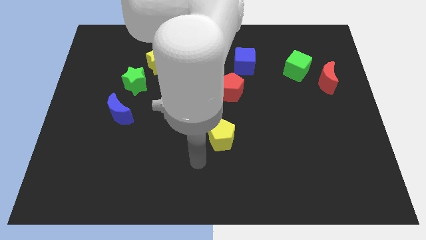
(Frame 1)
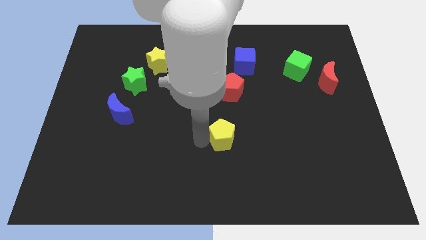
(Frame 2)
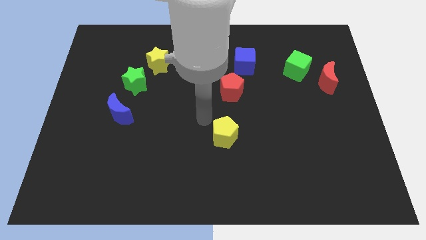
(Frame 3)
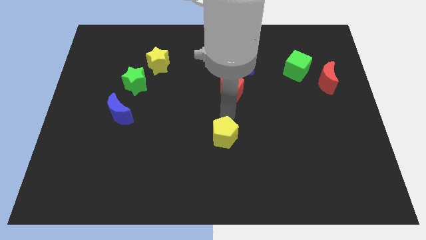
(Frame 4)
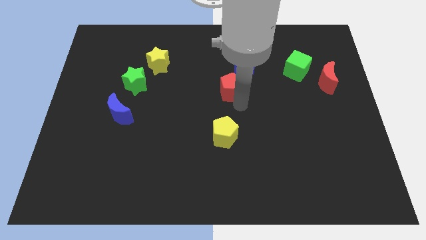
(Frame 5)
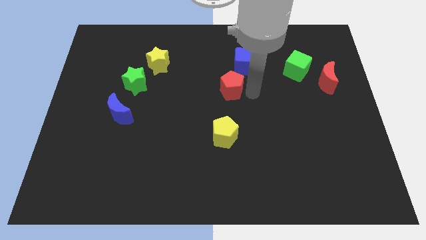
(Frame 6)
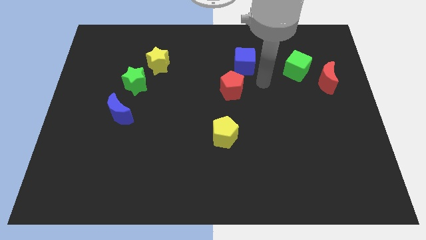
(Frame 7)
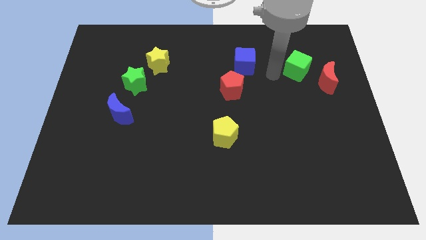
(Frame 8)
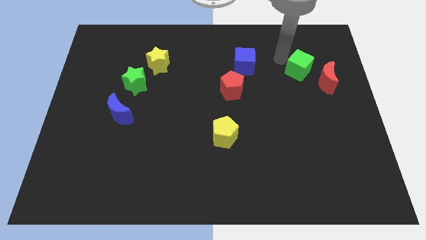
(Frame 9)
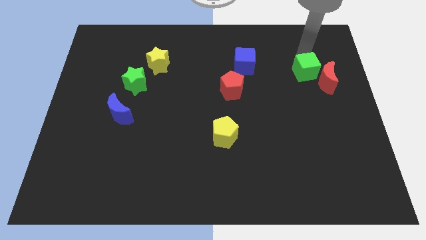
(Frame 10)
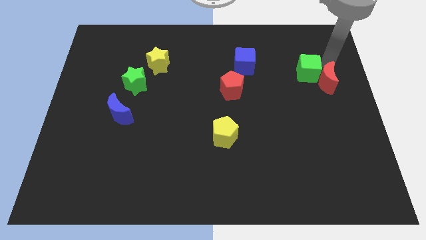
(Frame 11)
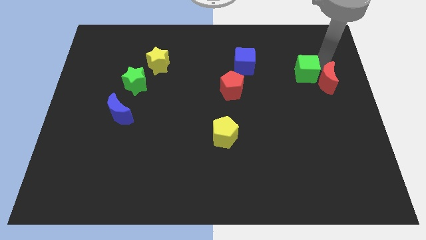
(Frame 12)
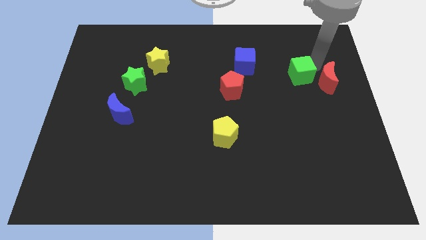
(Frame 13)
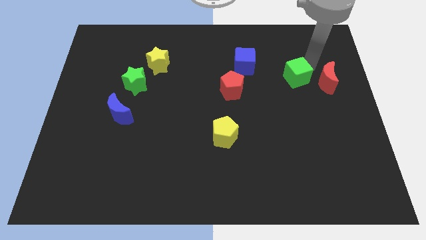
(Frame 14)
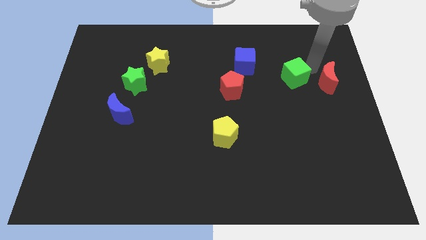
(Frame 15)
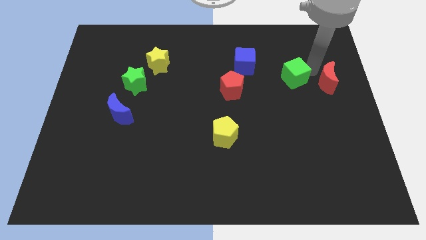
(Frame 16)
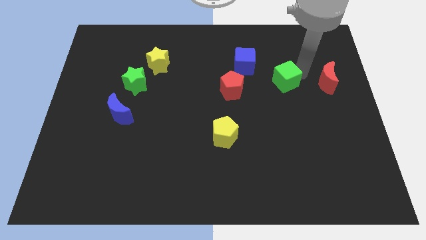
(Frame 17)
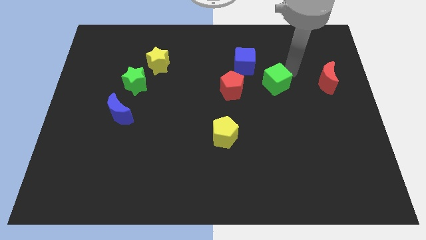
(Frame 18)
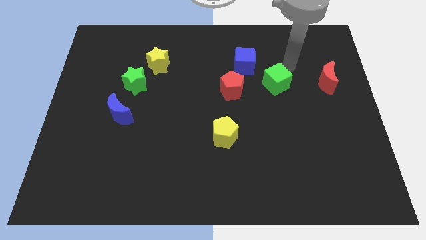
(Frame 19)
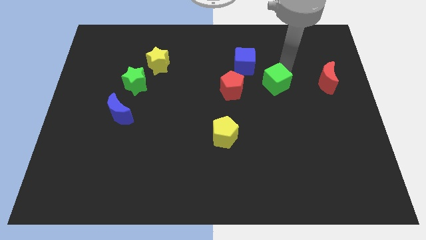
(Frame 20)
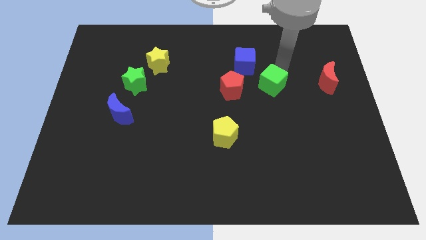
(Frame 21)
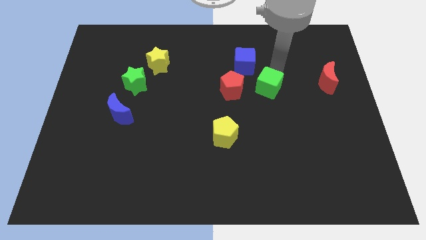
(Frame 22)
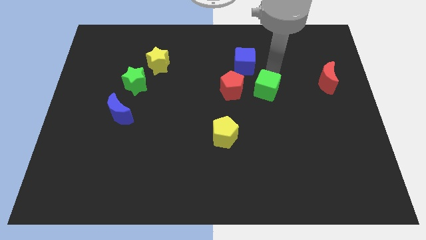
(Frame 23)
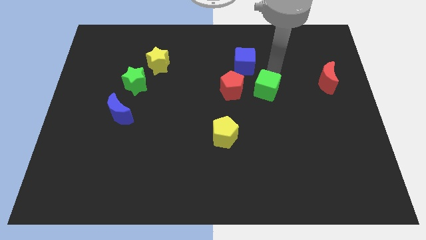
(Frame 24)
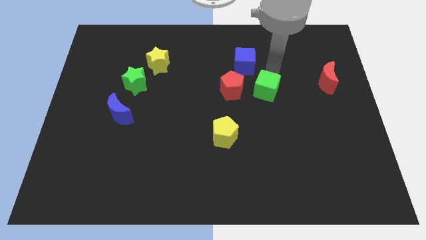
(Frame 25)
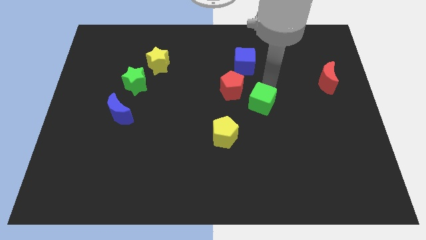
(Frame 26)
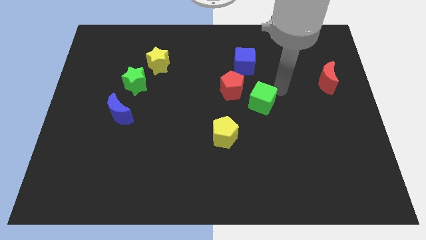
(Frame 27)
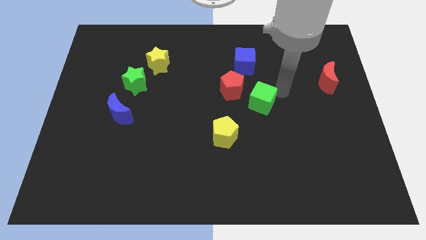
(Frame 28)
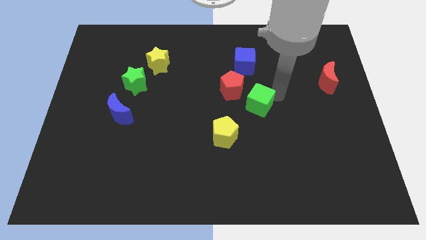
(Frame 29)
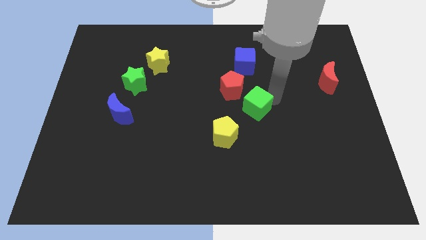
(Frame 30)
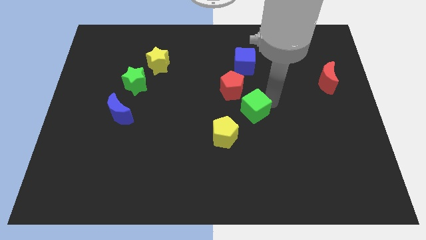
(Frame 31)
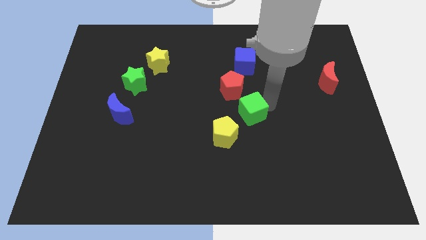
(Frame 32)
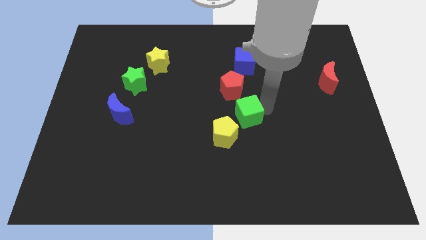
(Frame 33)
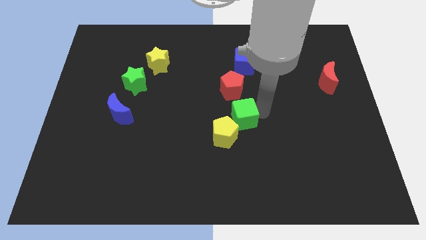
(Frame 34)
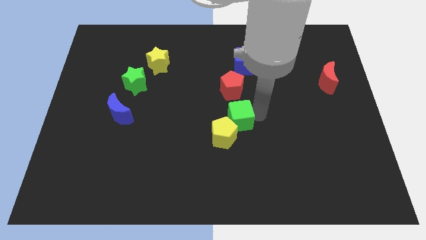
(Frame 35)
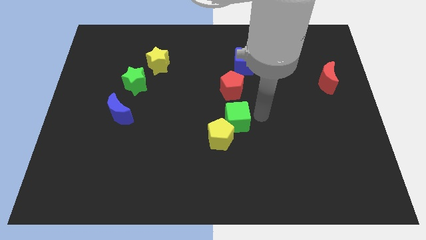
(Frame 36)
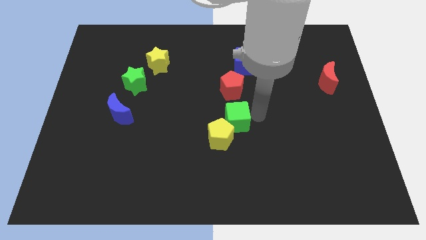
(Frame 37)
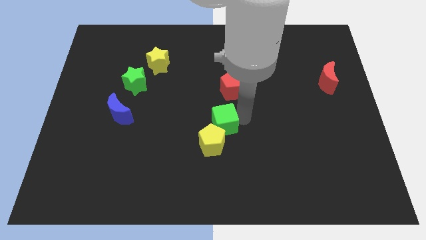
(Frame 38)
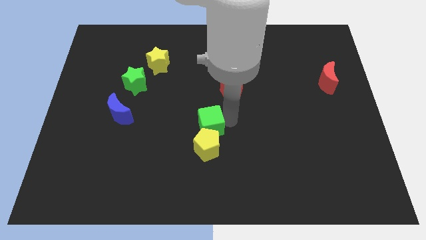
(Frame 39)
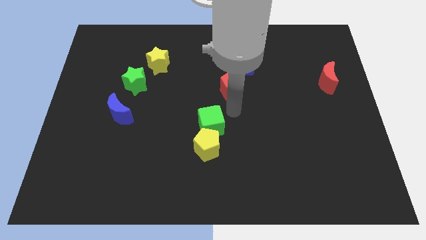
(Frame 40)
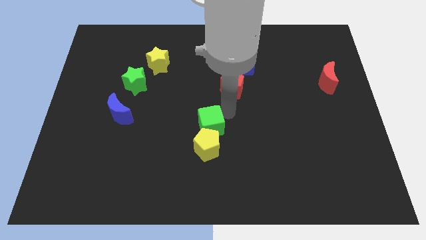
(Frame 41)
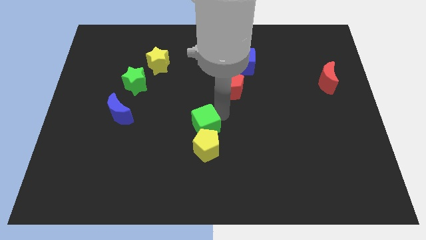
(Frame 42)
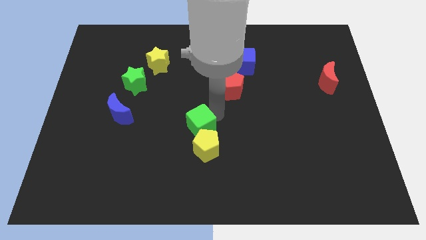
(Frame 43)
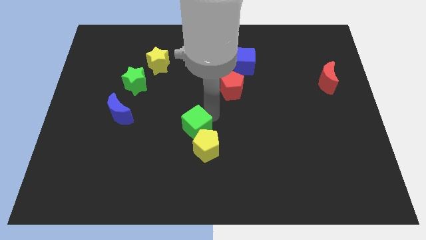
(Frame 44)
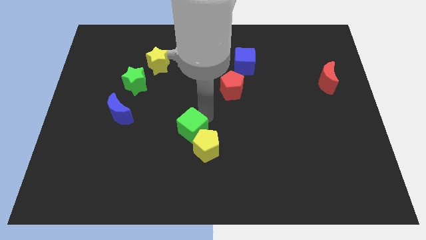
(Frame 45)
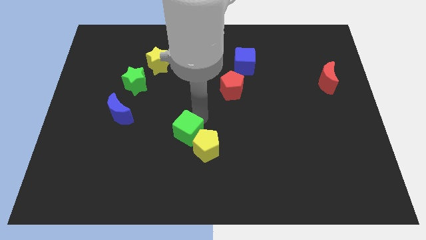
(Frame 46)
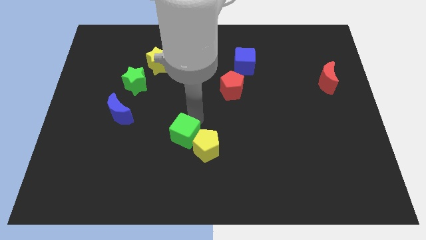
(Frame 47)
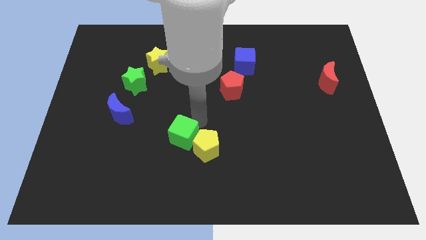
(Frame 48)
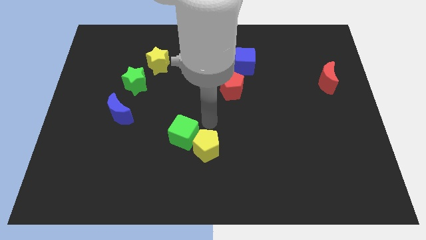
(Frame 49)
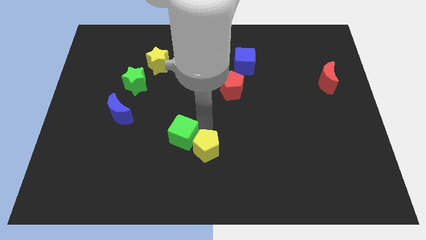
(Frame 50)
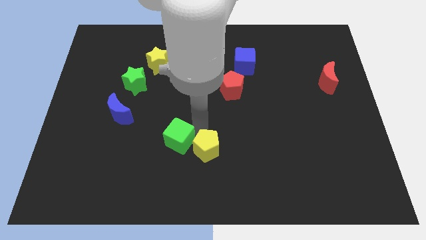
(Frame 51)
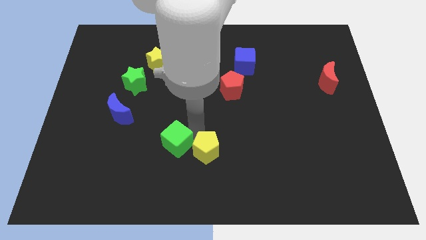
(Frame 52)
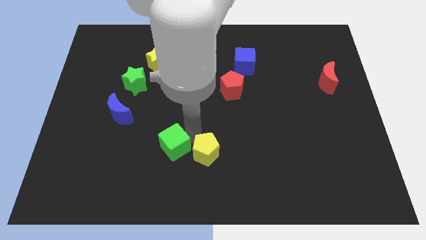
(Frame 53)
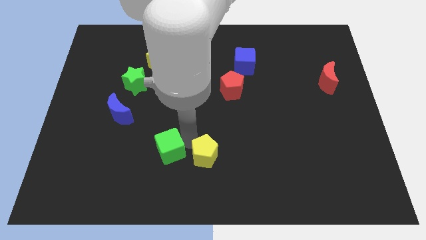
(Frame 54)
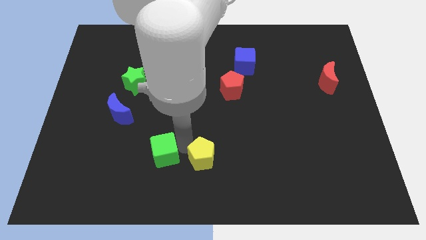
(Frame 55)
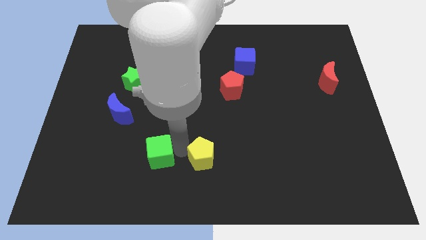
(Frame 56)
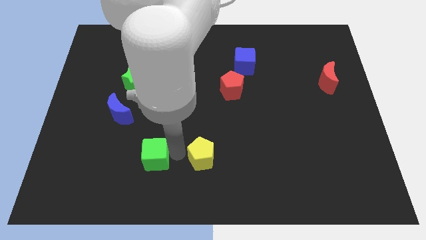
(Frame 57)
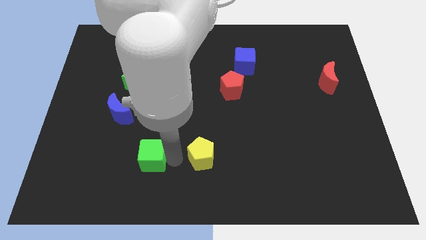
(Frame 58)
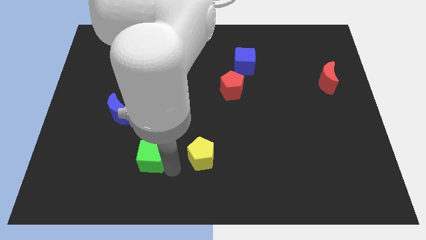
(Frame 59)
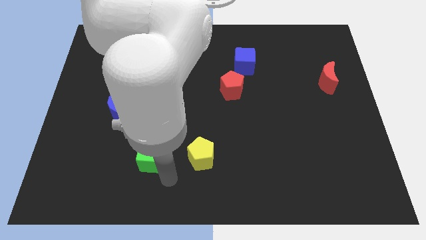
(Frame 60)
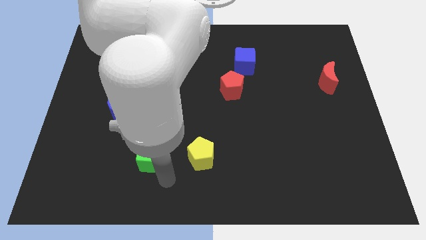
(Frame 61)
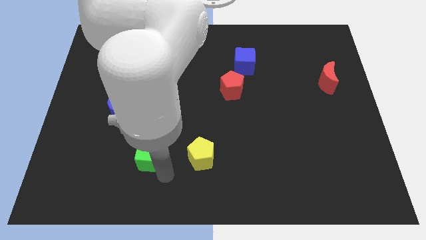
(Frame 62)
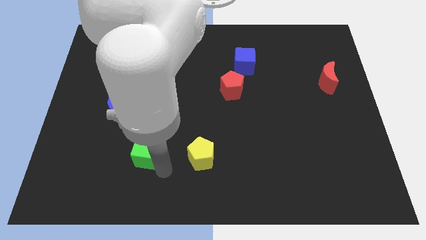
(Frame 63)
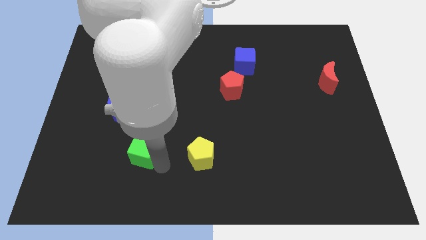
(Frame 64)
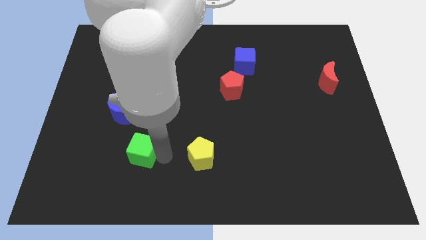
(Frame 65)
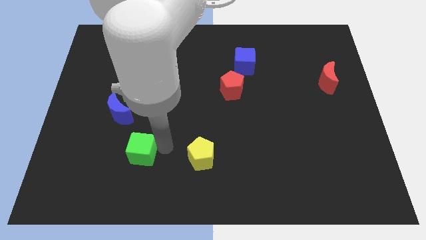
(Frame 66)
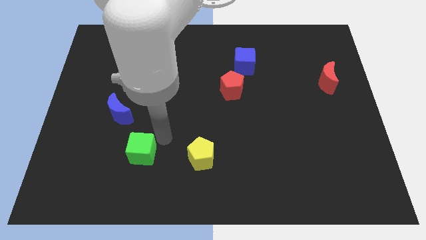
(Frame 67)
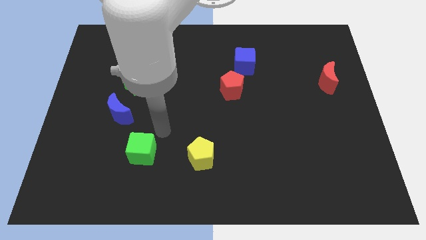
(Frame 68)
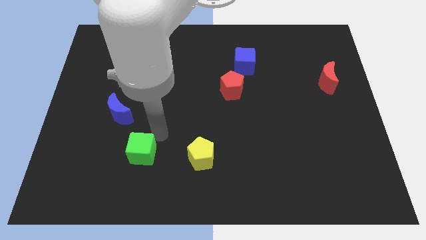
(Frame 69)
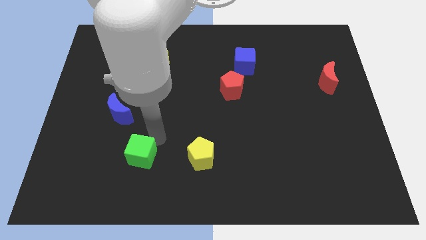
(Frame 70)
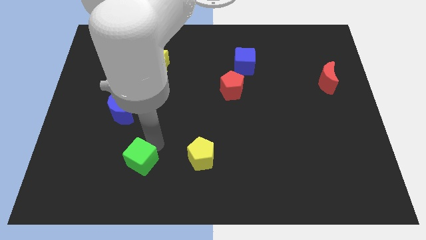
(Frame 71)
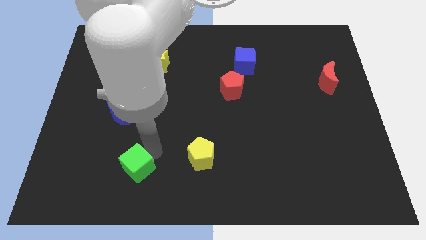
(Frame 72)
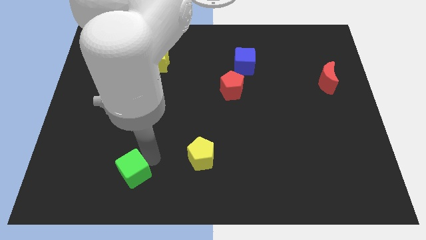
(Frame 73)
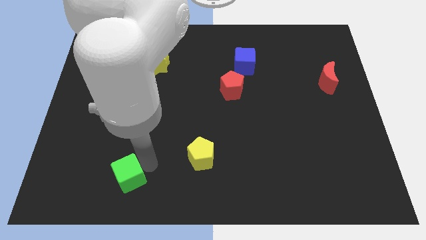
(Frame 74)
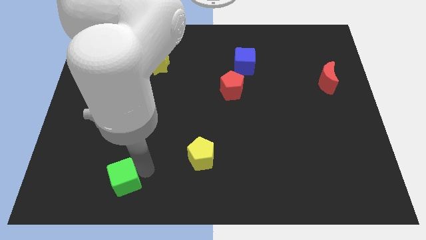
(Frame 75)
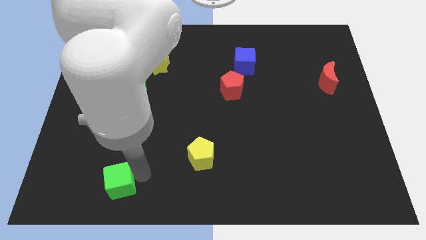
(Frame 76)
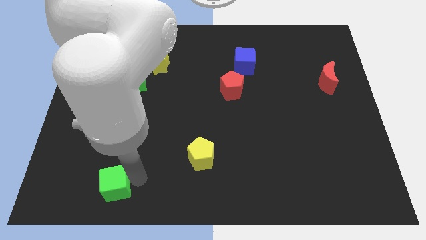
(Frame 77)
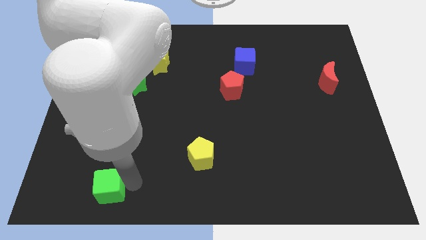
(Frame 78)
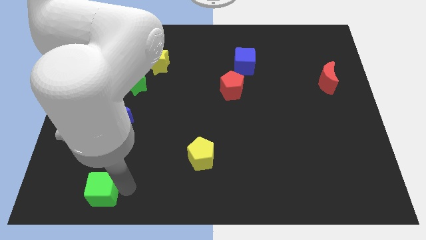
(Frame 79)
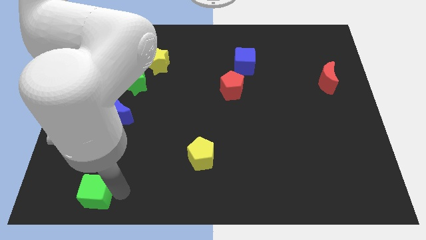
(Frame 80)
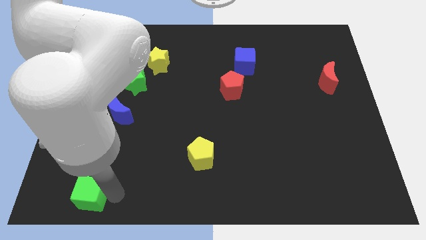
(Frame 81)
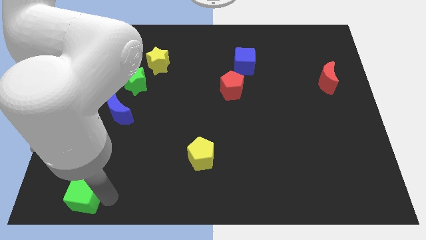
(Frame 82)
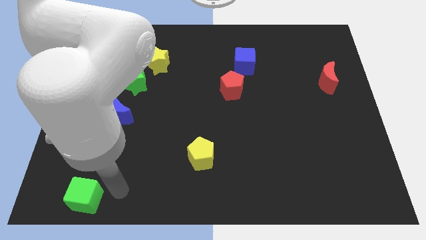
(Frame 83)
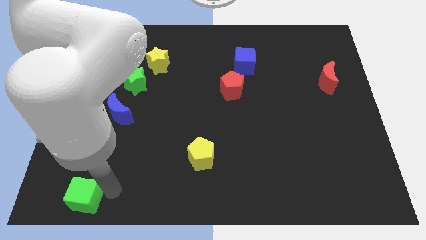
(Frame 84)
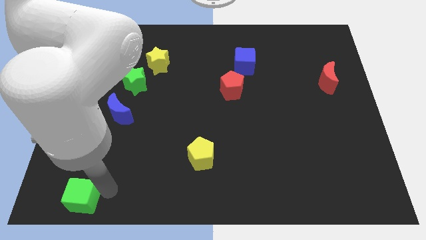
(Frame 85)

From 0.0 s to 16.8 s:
put the green cube to the bottom left
